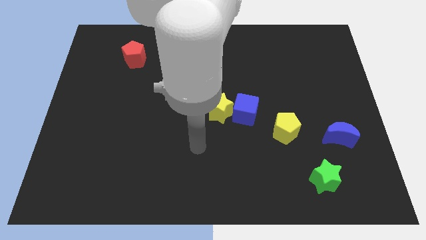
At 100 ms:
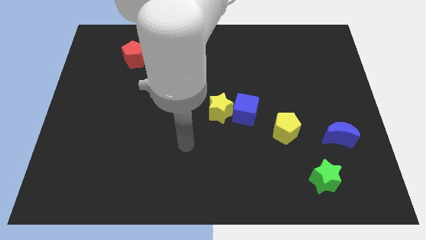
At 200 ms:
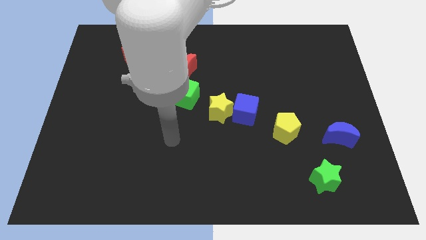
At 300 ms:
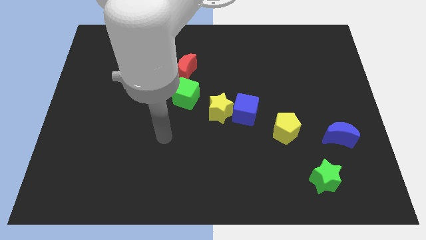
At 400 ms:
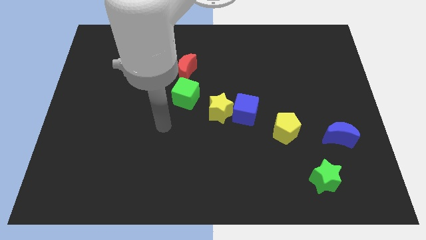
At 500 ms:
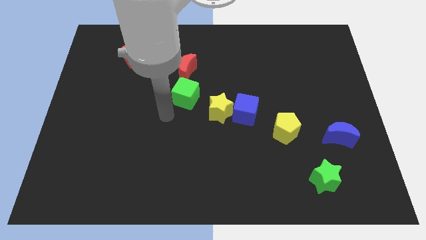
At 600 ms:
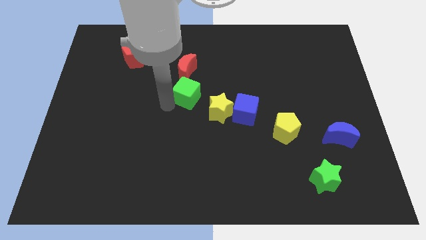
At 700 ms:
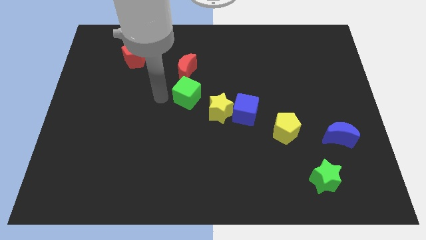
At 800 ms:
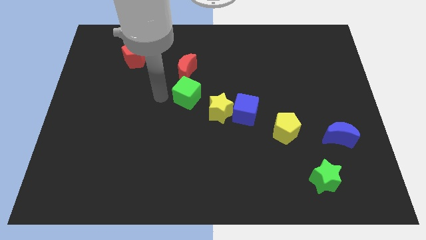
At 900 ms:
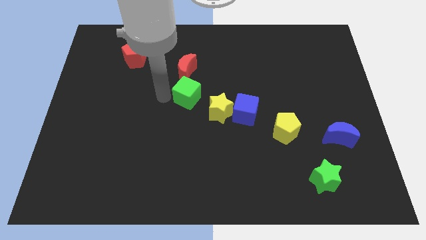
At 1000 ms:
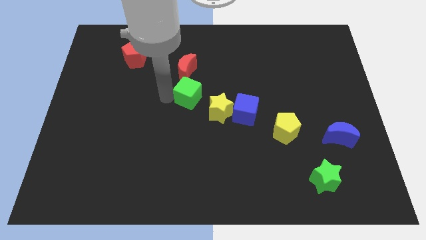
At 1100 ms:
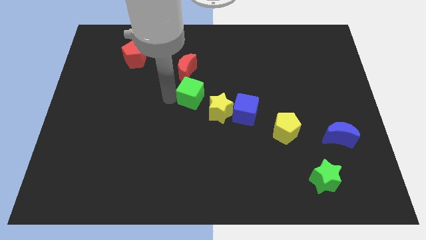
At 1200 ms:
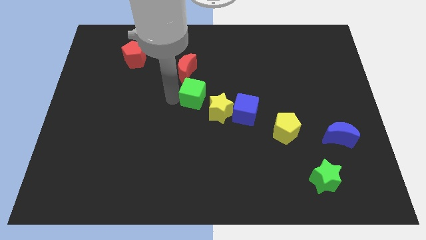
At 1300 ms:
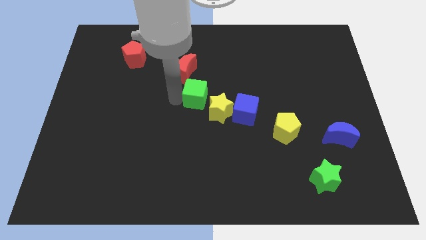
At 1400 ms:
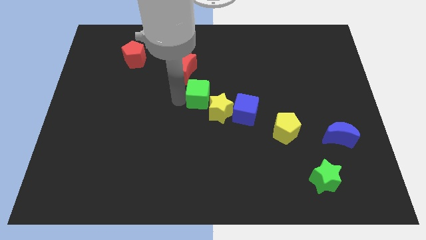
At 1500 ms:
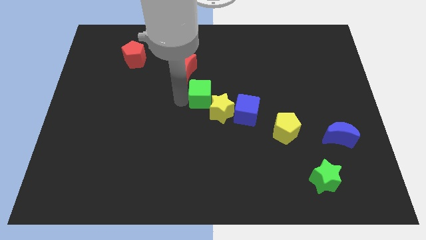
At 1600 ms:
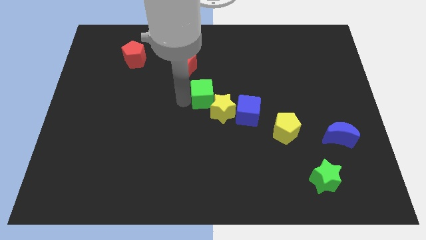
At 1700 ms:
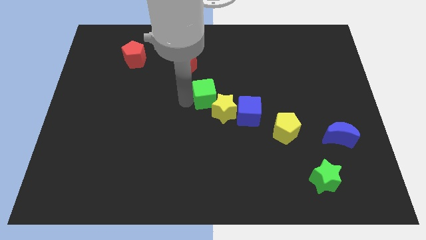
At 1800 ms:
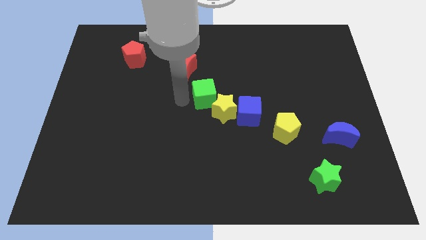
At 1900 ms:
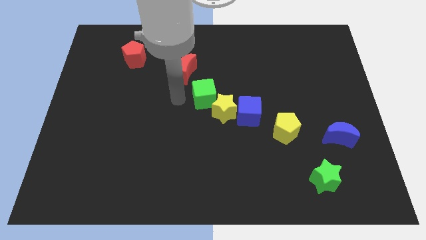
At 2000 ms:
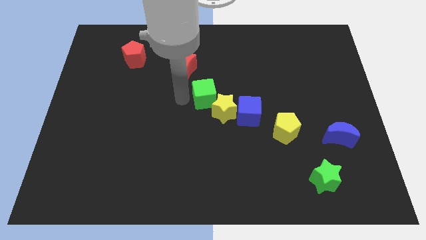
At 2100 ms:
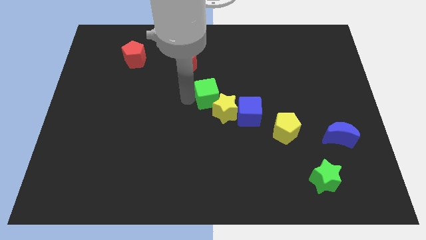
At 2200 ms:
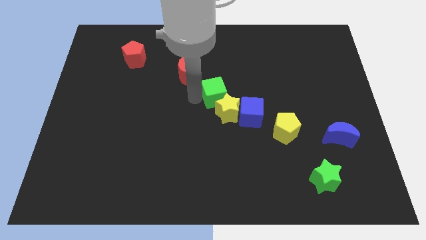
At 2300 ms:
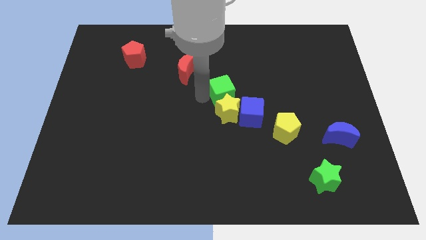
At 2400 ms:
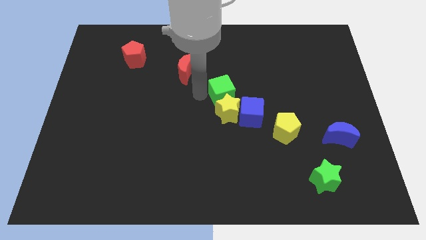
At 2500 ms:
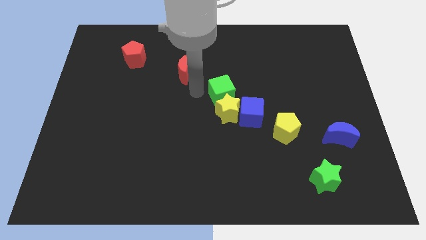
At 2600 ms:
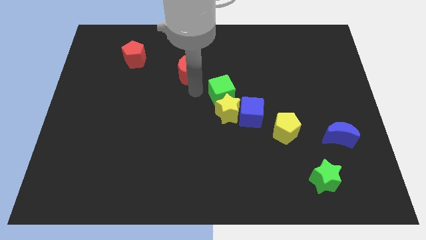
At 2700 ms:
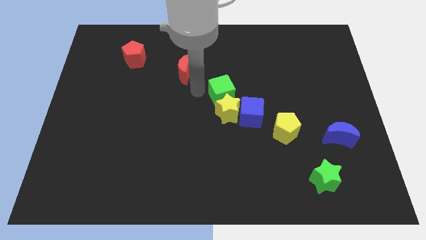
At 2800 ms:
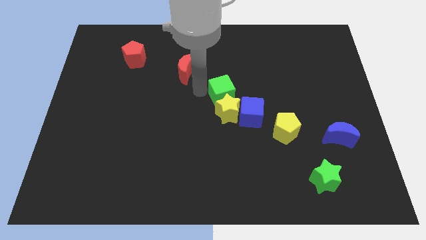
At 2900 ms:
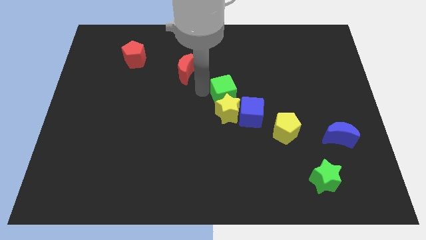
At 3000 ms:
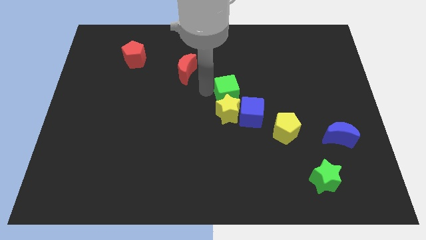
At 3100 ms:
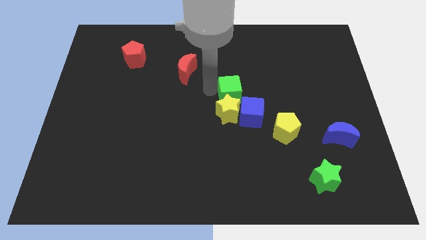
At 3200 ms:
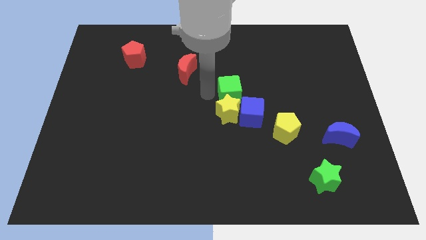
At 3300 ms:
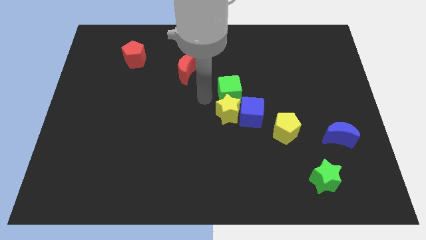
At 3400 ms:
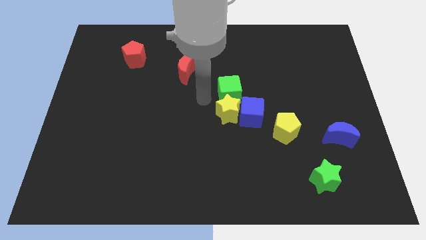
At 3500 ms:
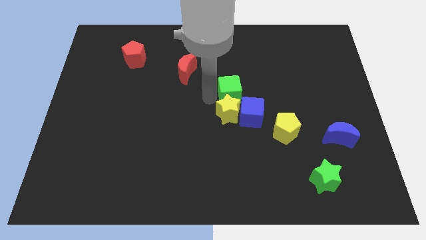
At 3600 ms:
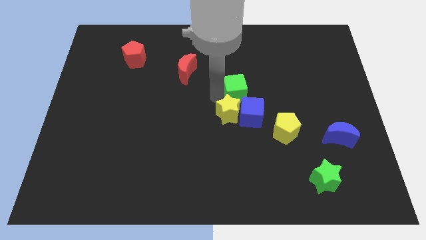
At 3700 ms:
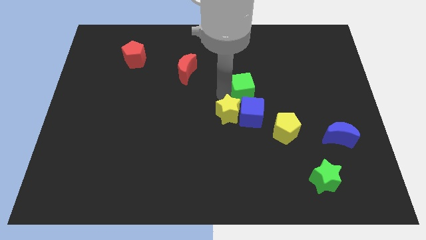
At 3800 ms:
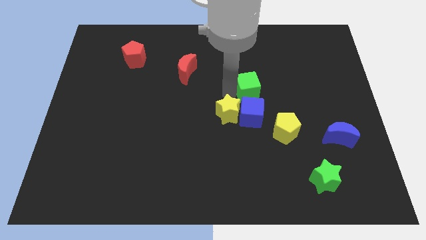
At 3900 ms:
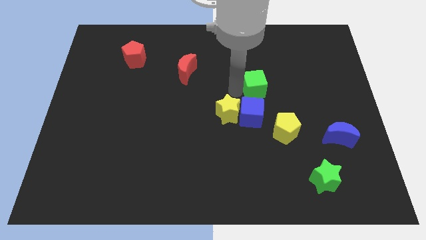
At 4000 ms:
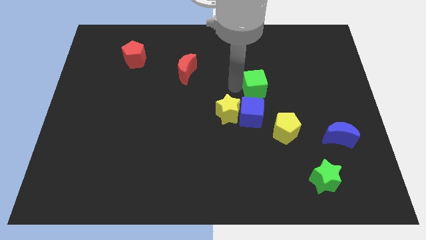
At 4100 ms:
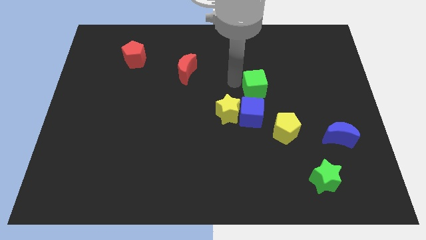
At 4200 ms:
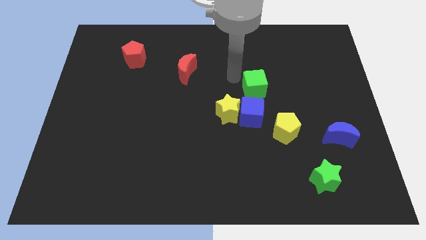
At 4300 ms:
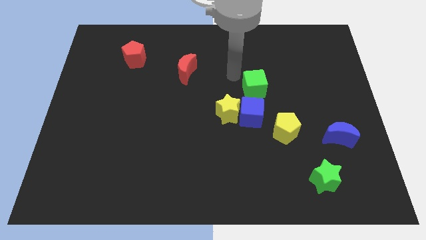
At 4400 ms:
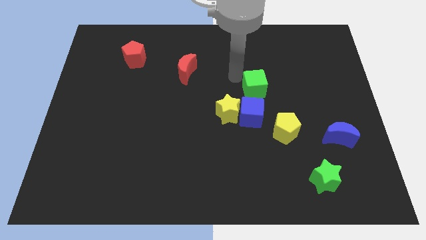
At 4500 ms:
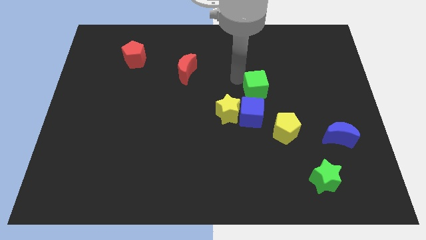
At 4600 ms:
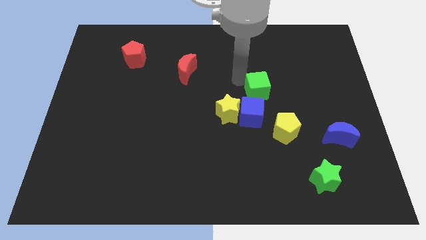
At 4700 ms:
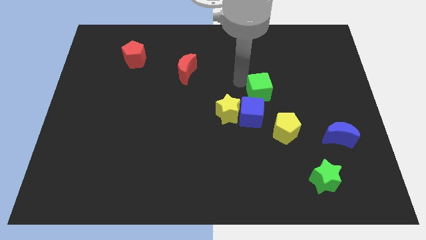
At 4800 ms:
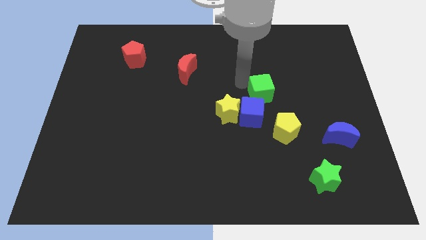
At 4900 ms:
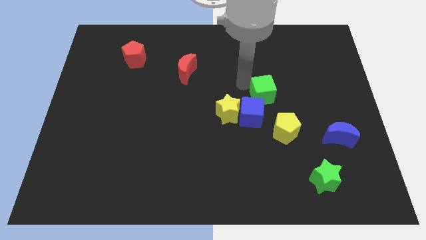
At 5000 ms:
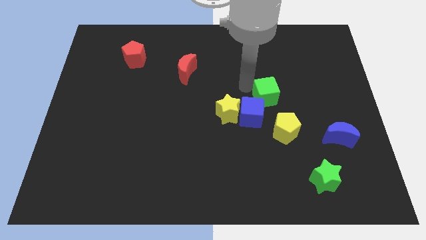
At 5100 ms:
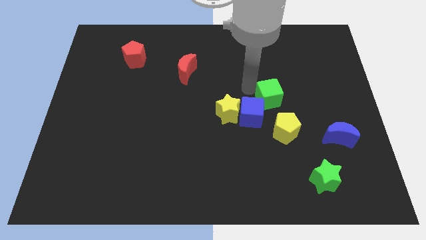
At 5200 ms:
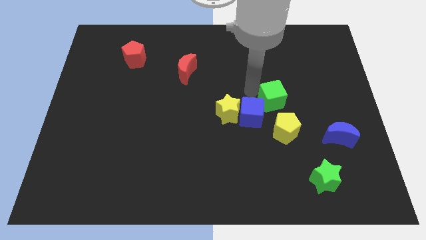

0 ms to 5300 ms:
push the green cube right of the blue cube

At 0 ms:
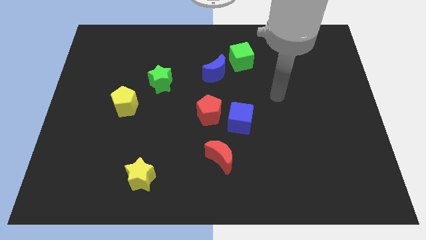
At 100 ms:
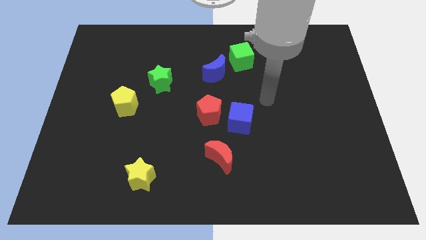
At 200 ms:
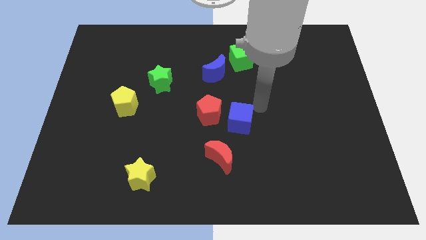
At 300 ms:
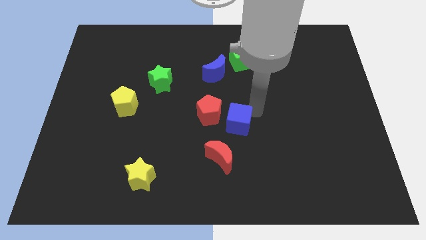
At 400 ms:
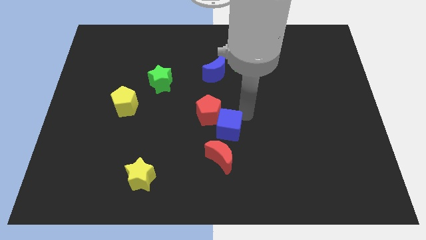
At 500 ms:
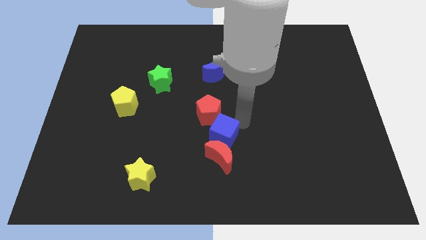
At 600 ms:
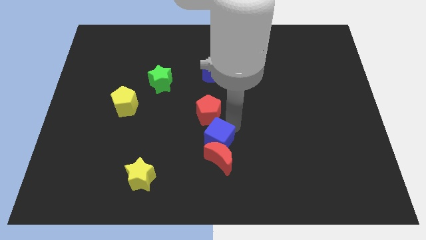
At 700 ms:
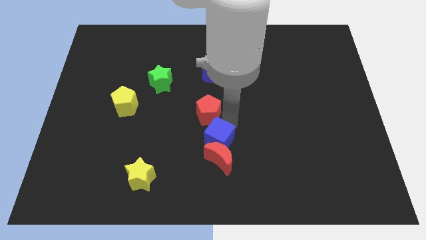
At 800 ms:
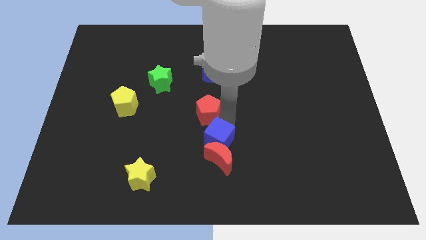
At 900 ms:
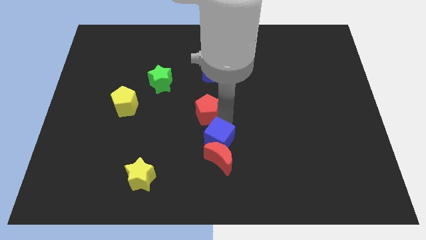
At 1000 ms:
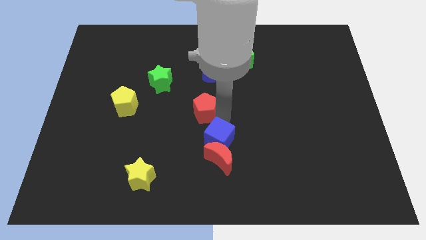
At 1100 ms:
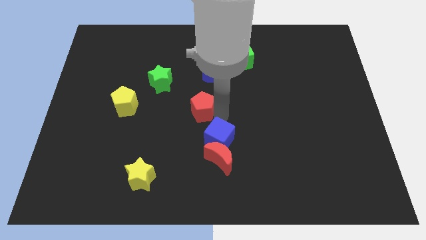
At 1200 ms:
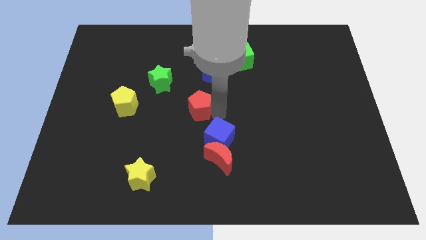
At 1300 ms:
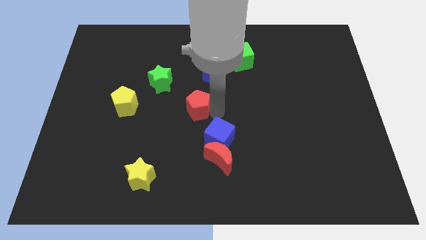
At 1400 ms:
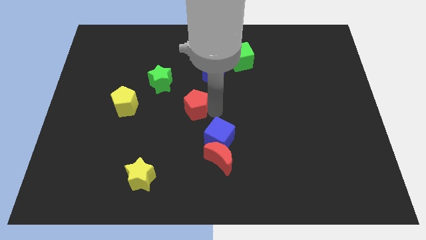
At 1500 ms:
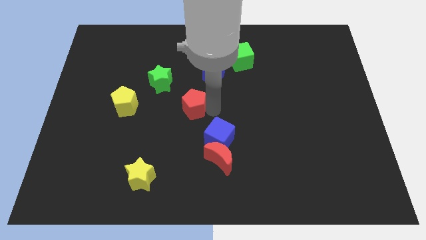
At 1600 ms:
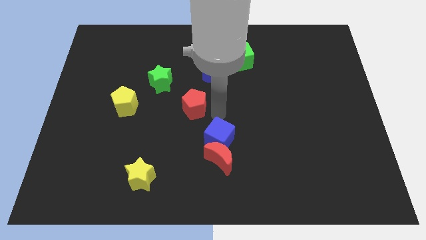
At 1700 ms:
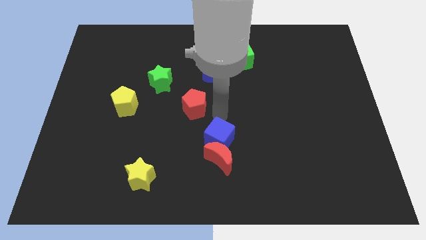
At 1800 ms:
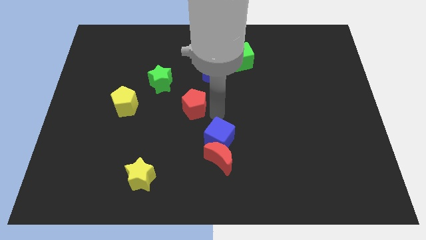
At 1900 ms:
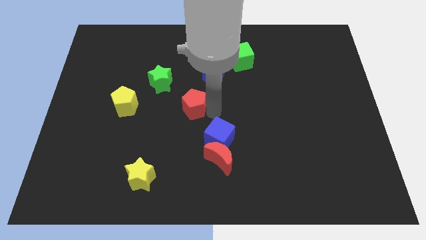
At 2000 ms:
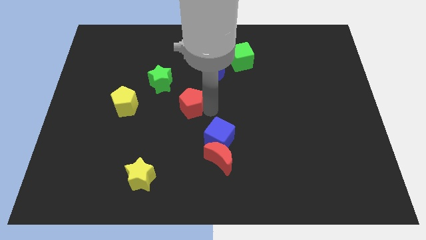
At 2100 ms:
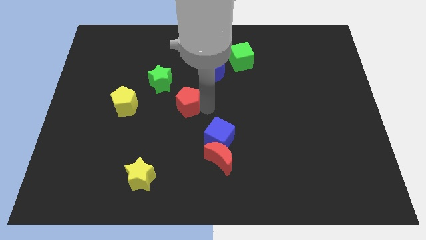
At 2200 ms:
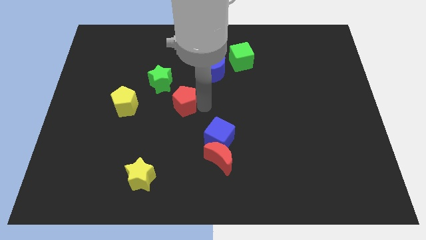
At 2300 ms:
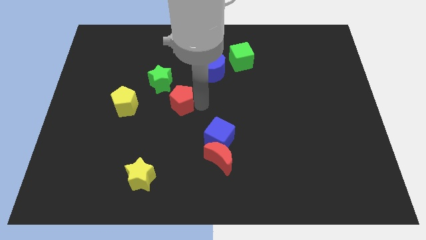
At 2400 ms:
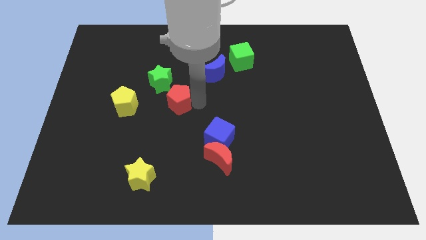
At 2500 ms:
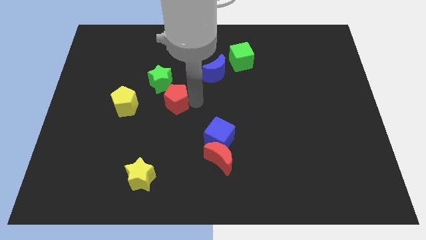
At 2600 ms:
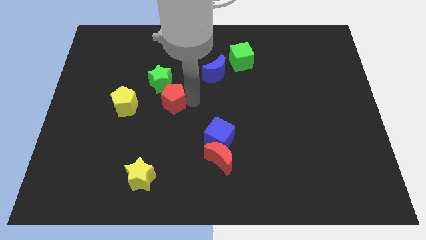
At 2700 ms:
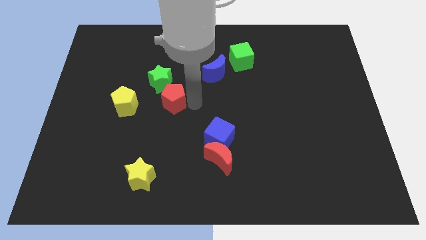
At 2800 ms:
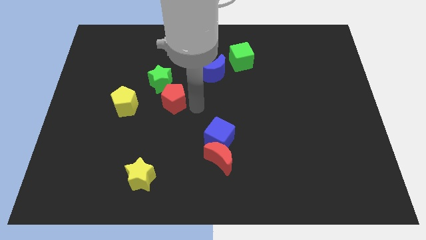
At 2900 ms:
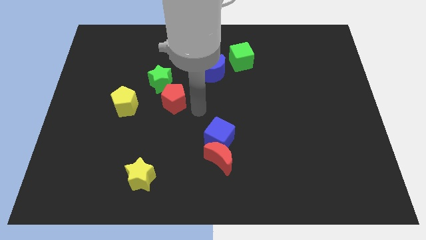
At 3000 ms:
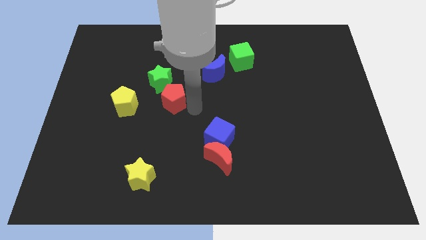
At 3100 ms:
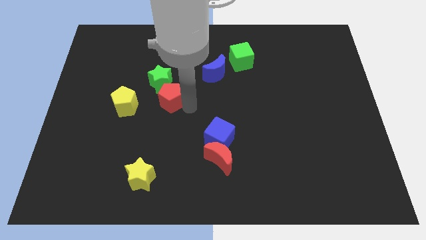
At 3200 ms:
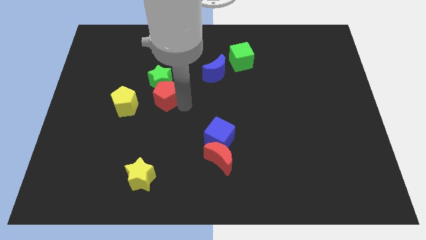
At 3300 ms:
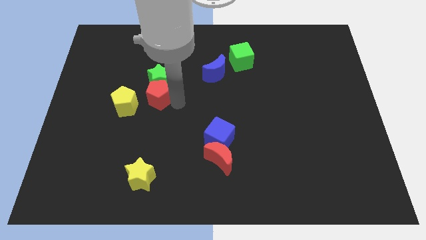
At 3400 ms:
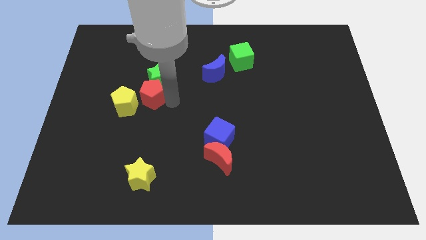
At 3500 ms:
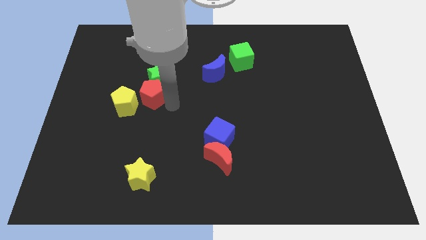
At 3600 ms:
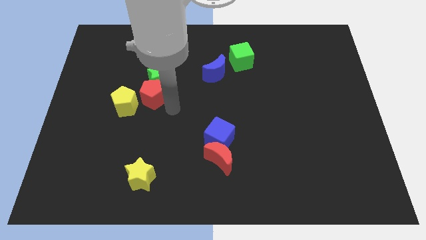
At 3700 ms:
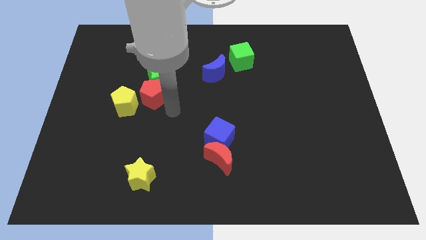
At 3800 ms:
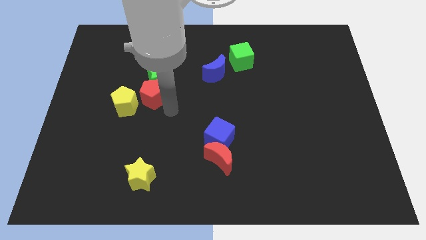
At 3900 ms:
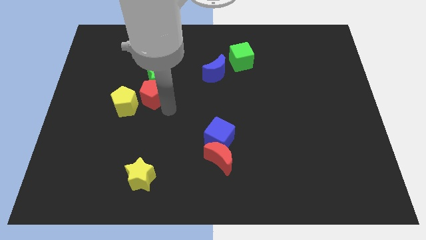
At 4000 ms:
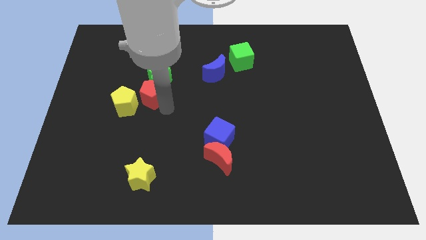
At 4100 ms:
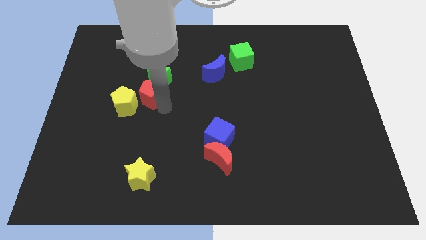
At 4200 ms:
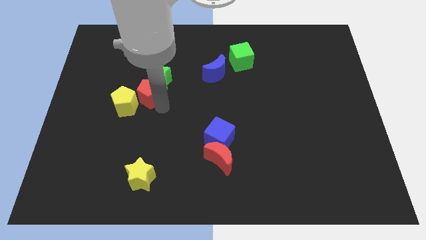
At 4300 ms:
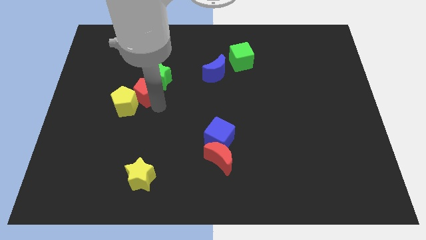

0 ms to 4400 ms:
slide the red pentagon above the yellow pentagon
